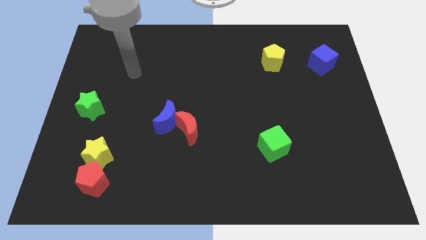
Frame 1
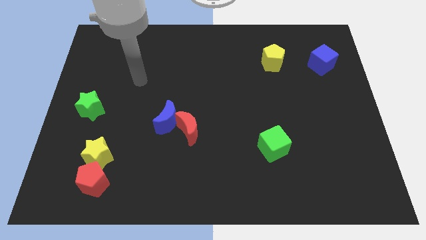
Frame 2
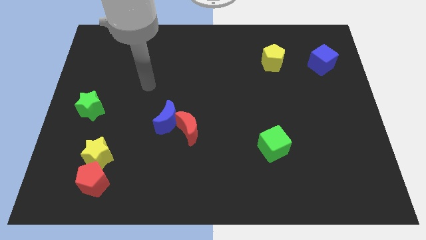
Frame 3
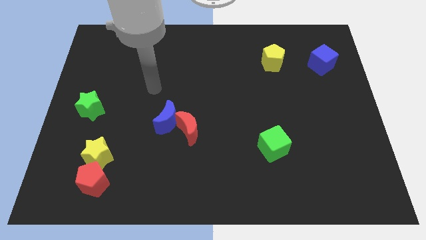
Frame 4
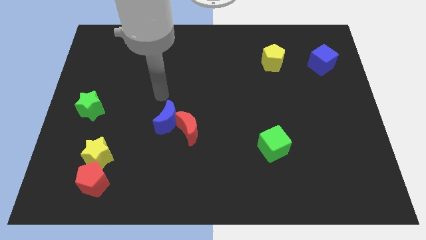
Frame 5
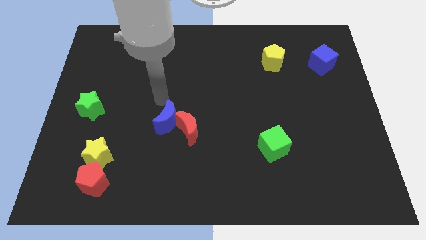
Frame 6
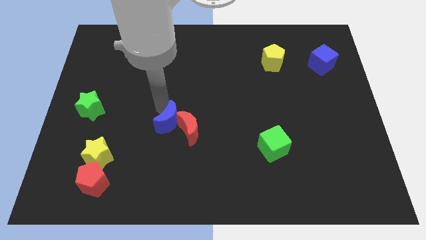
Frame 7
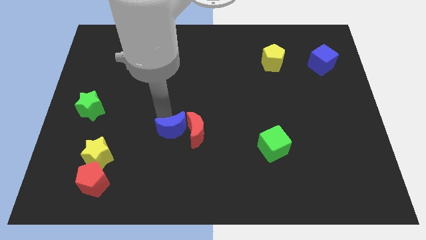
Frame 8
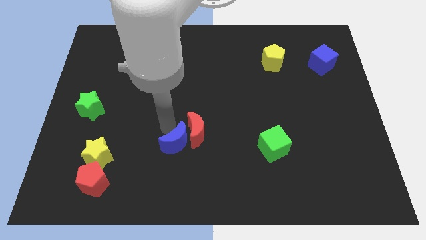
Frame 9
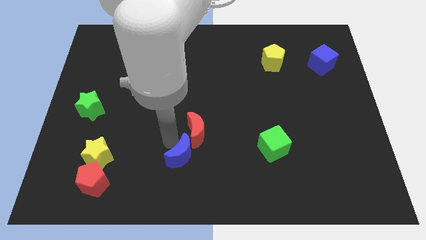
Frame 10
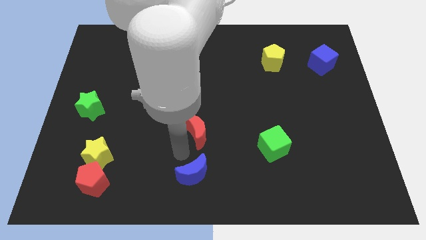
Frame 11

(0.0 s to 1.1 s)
separate the red moon from the blue moon

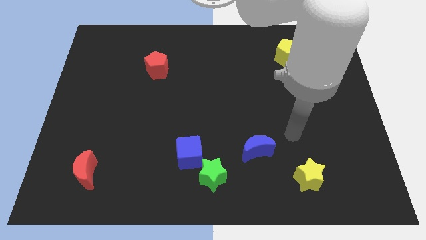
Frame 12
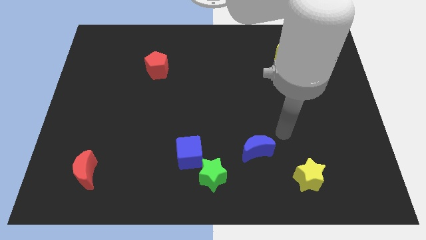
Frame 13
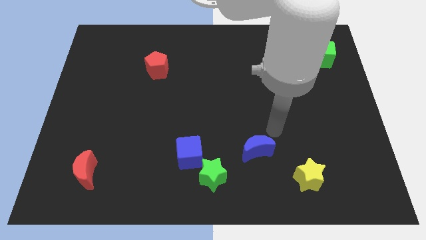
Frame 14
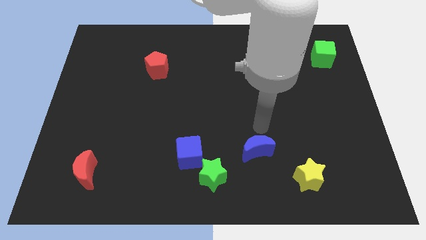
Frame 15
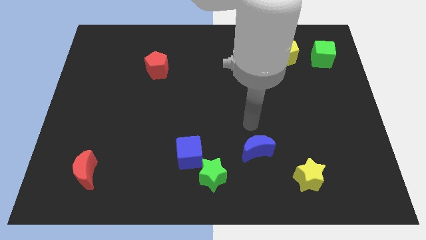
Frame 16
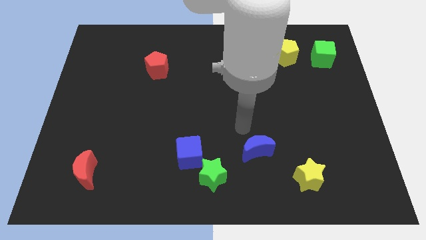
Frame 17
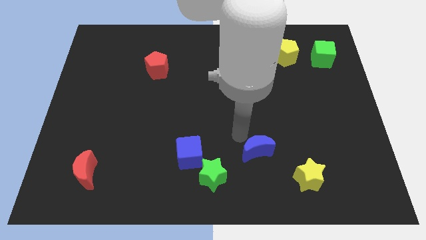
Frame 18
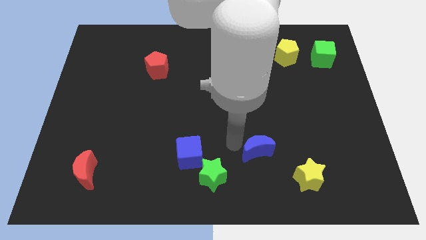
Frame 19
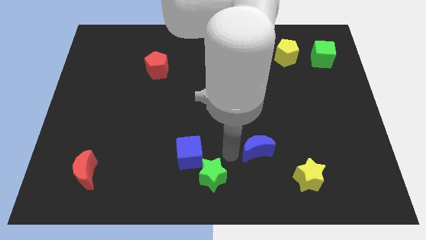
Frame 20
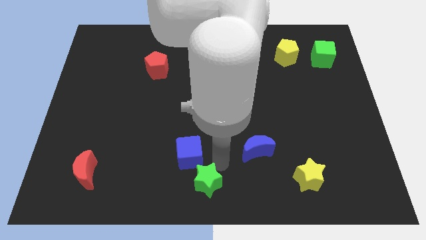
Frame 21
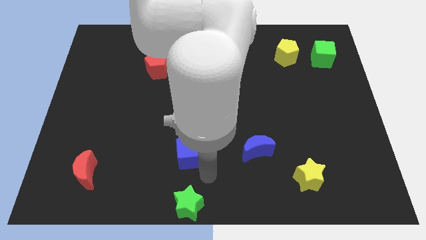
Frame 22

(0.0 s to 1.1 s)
pull the blue cube apart from the green star

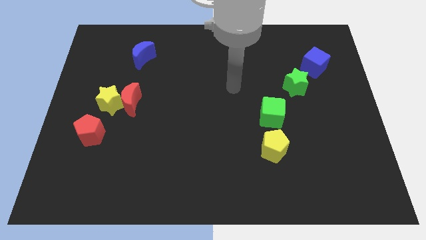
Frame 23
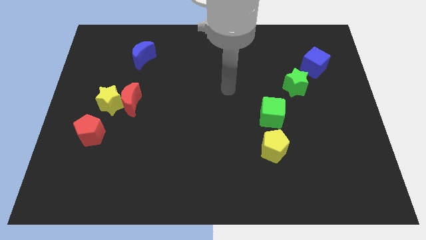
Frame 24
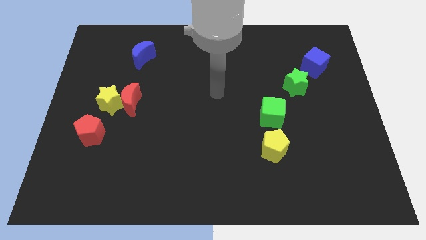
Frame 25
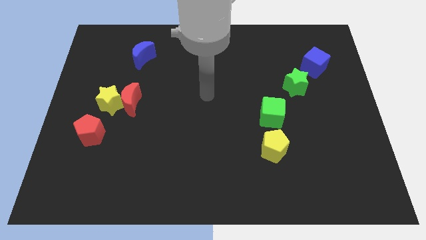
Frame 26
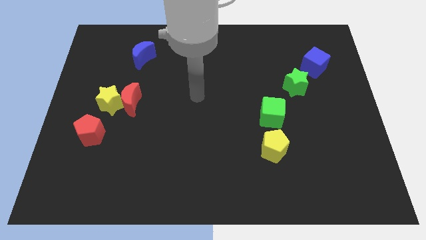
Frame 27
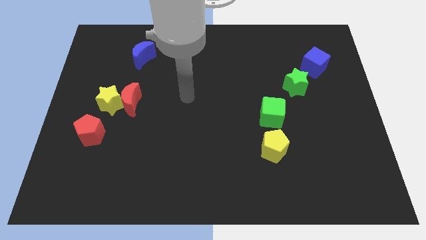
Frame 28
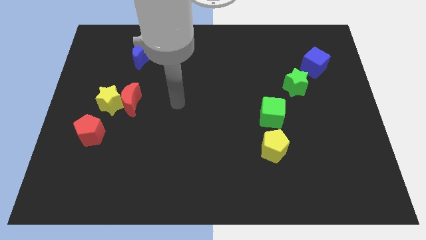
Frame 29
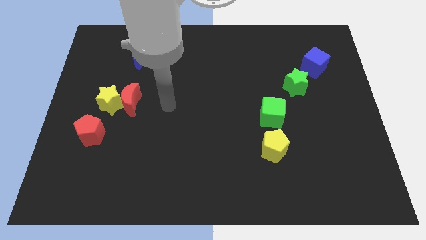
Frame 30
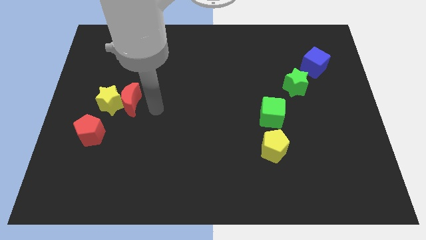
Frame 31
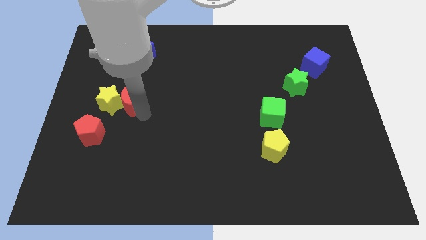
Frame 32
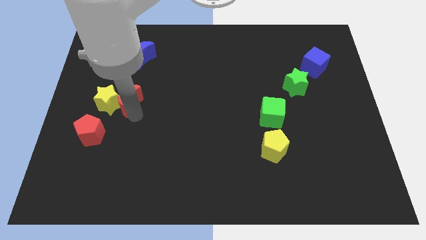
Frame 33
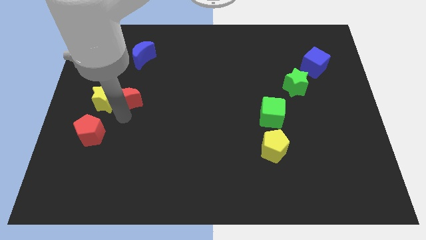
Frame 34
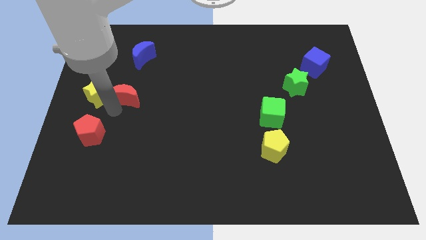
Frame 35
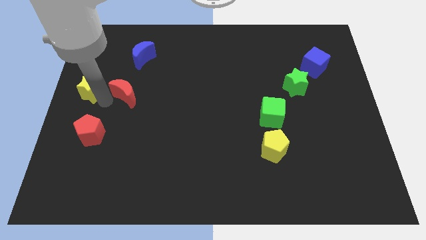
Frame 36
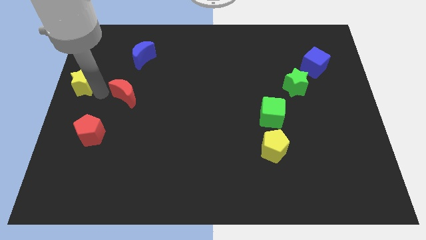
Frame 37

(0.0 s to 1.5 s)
separate the red moon from the yellow star

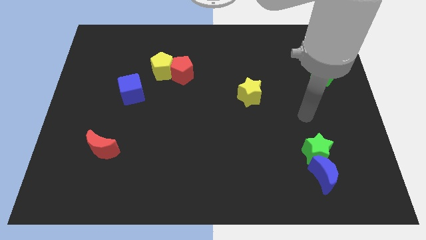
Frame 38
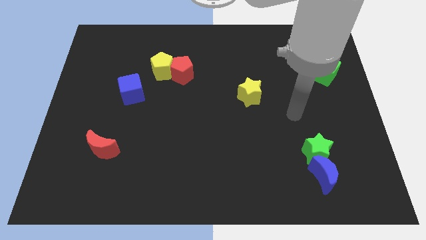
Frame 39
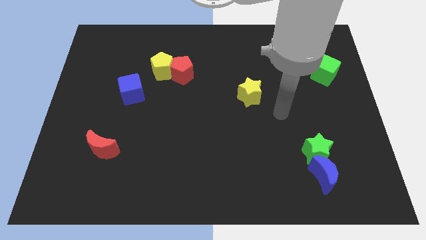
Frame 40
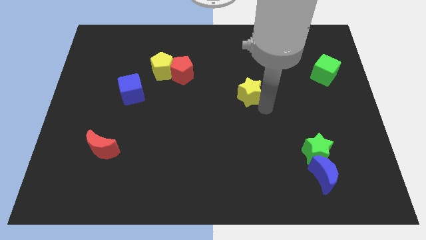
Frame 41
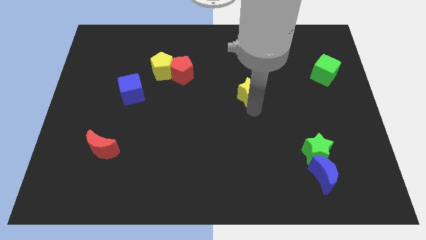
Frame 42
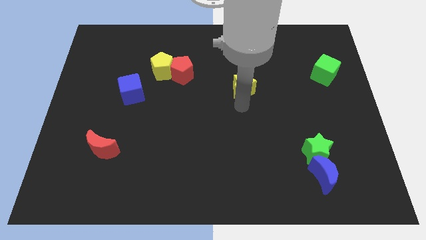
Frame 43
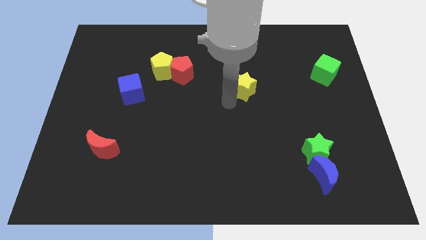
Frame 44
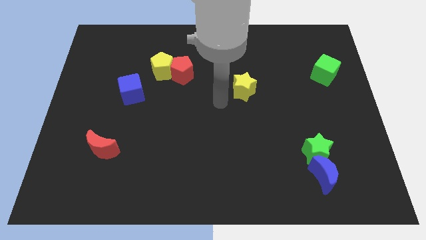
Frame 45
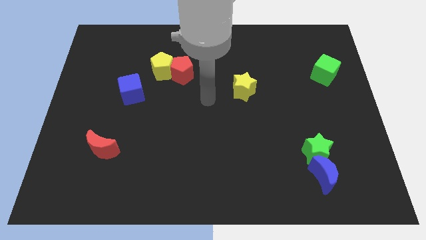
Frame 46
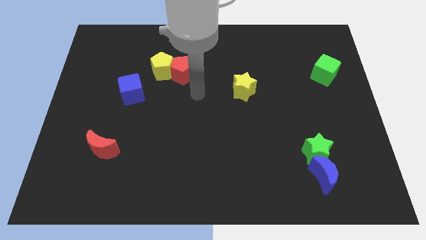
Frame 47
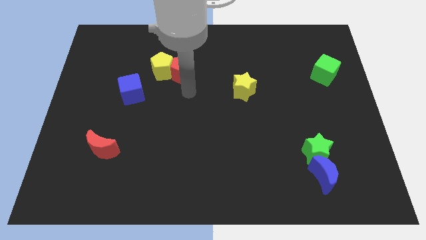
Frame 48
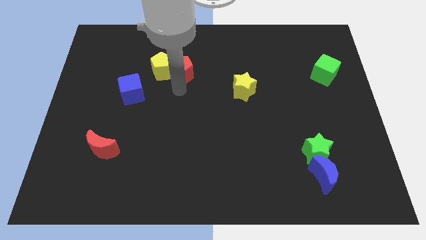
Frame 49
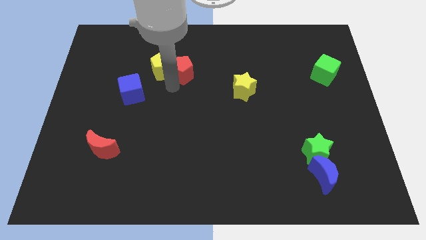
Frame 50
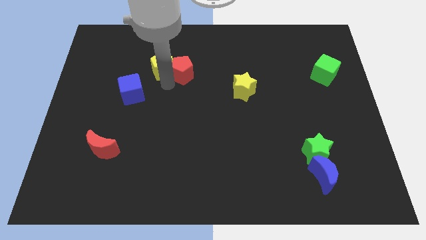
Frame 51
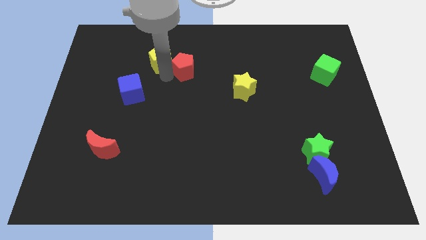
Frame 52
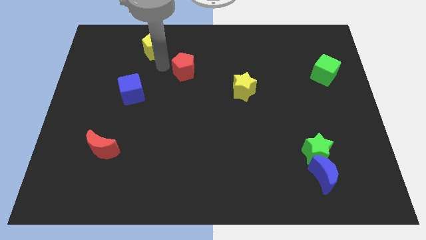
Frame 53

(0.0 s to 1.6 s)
move the red pentagon away from the yellow pentagon

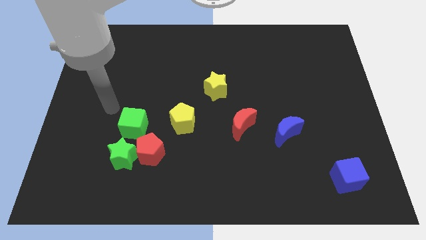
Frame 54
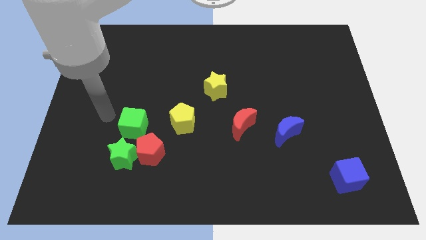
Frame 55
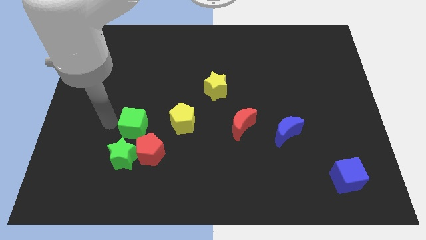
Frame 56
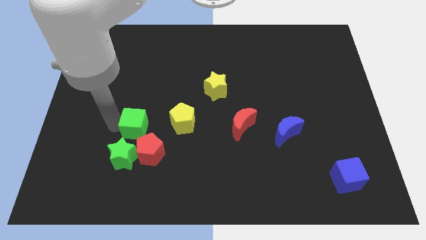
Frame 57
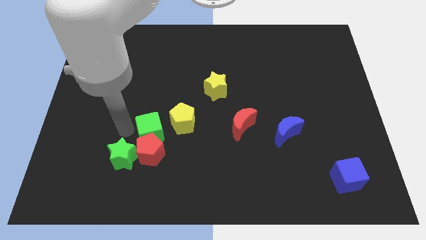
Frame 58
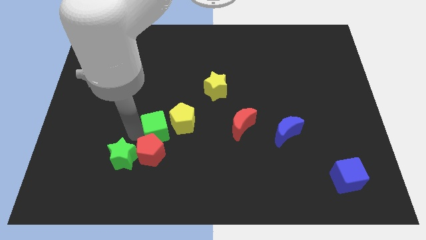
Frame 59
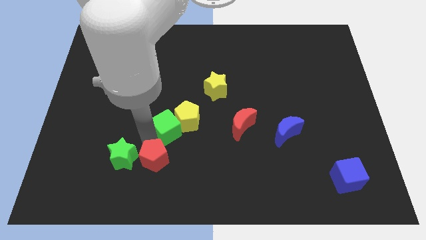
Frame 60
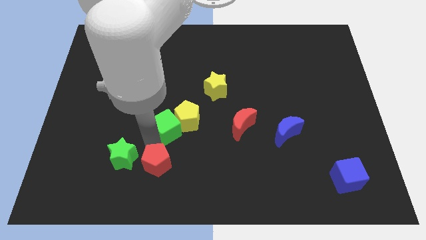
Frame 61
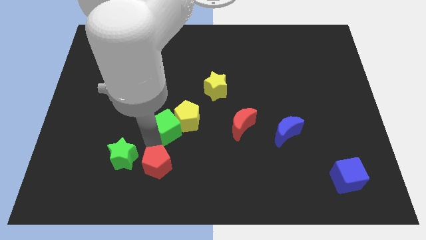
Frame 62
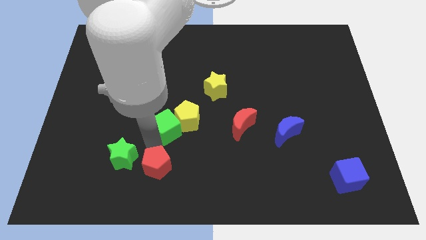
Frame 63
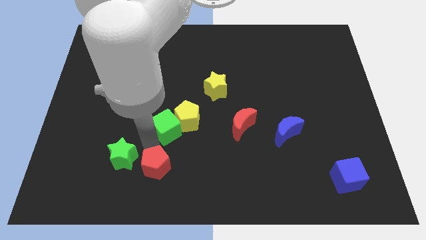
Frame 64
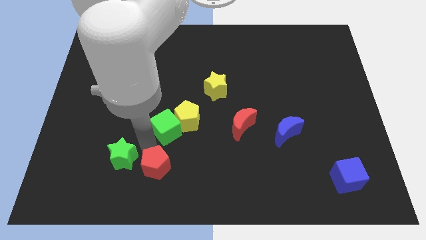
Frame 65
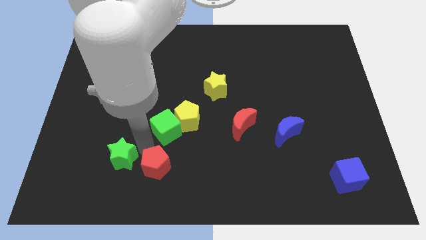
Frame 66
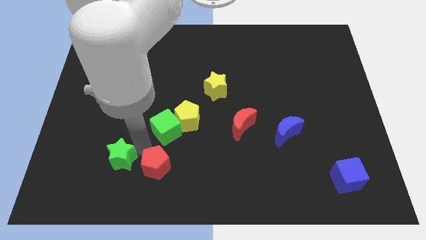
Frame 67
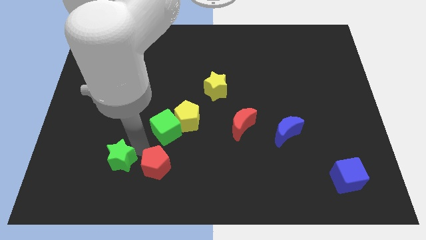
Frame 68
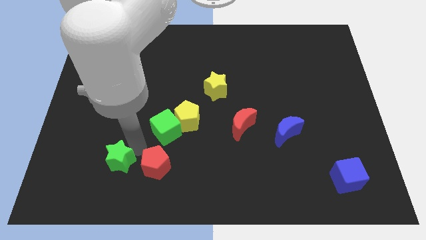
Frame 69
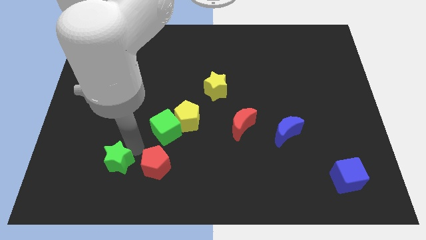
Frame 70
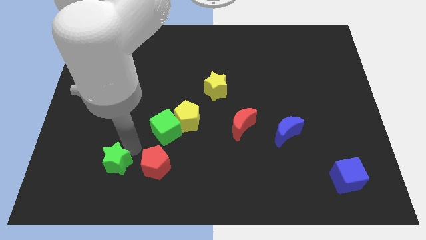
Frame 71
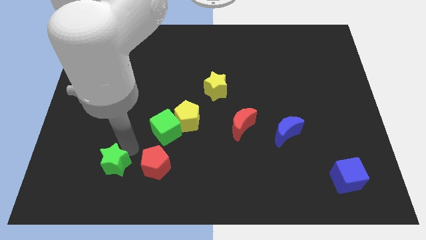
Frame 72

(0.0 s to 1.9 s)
move the green star away from the red pentagon and green cube

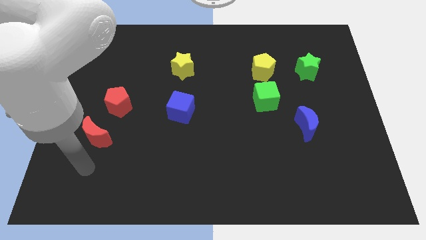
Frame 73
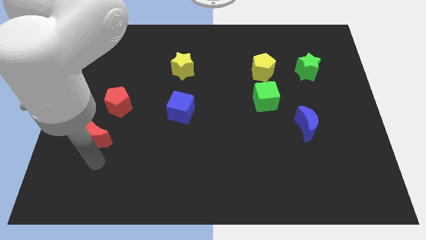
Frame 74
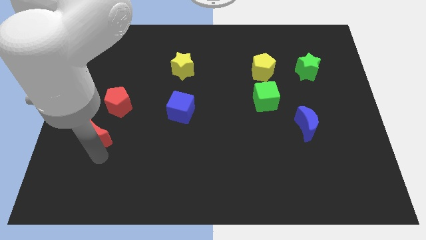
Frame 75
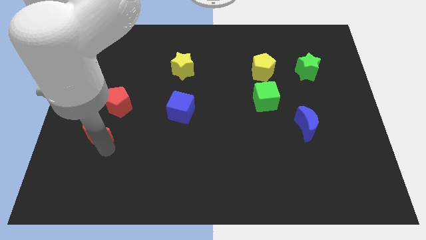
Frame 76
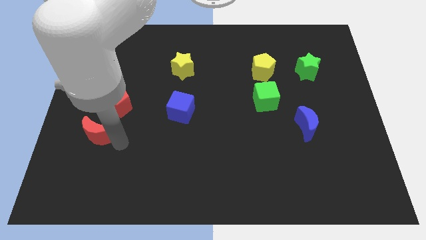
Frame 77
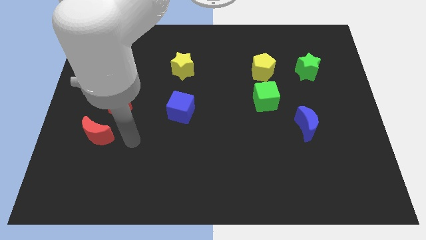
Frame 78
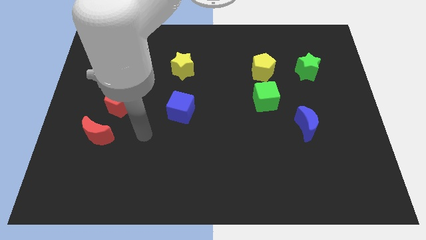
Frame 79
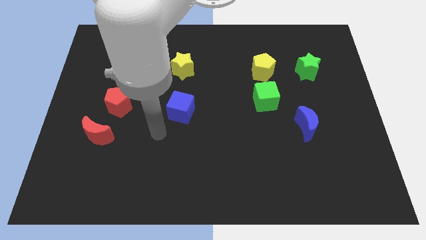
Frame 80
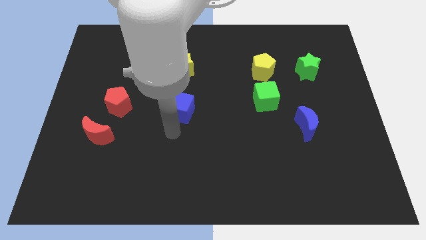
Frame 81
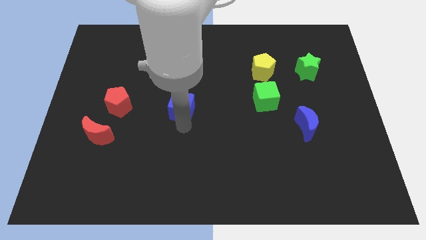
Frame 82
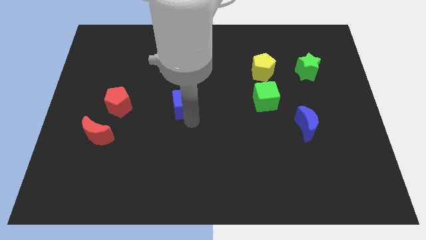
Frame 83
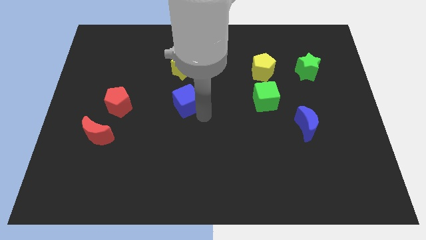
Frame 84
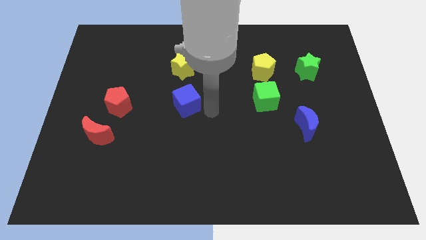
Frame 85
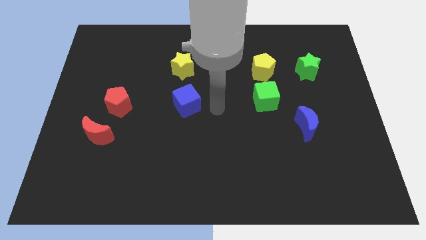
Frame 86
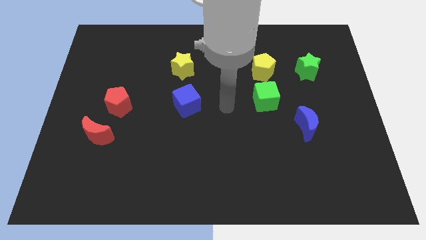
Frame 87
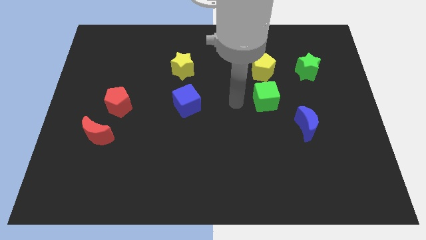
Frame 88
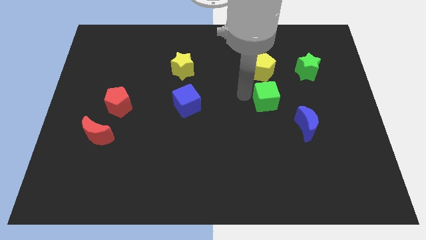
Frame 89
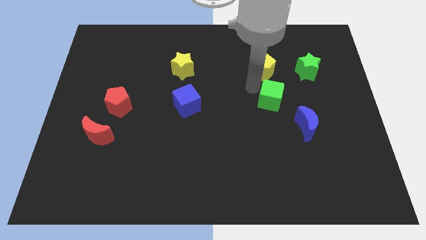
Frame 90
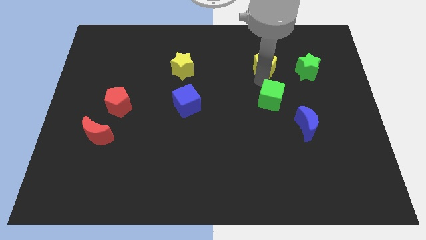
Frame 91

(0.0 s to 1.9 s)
separate the green cube from the yellow pentagon
